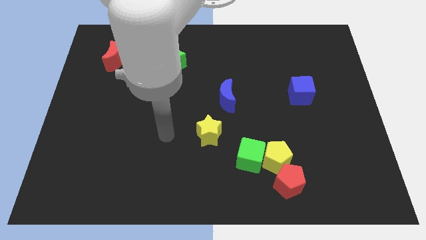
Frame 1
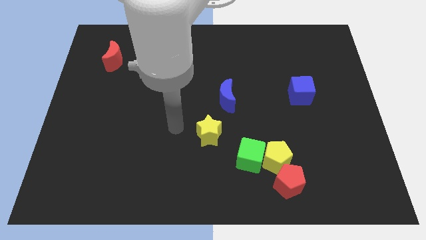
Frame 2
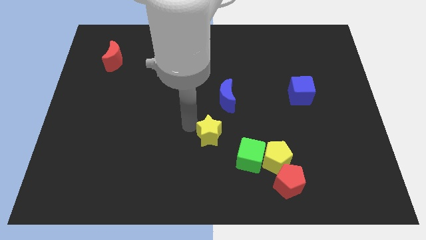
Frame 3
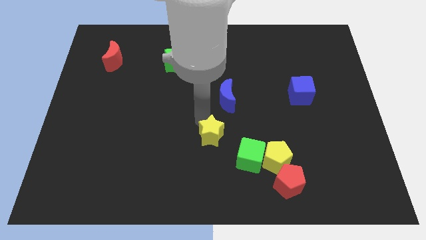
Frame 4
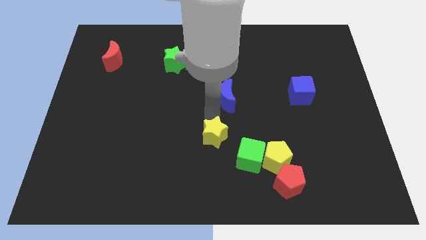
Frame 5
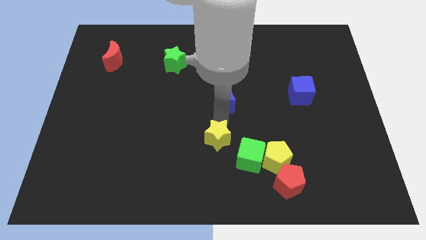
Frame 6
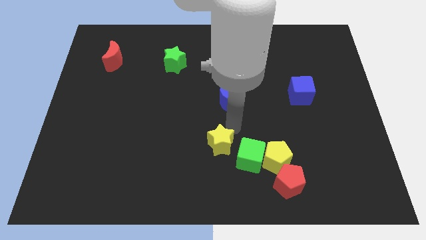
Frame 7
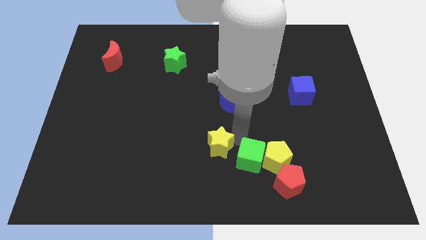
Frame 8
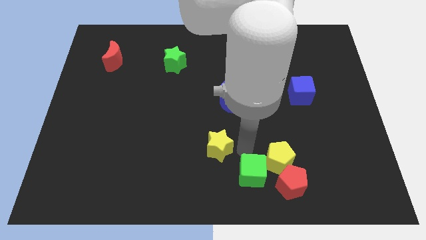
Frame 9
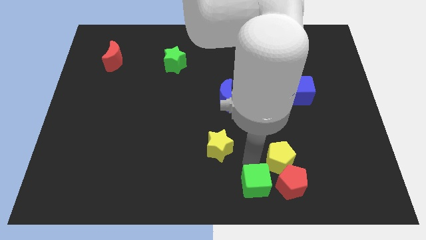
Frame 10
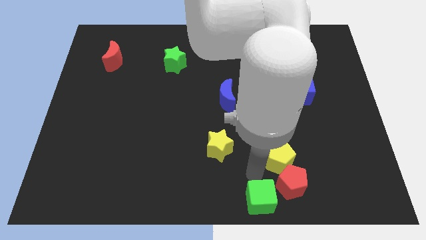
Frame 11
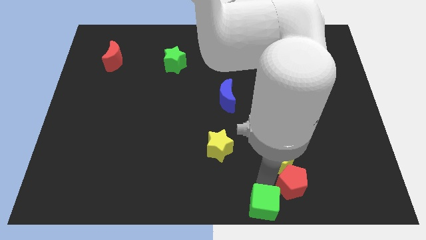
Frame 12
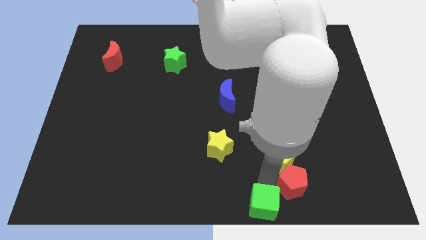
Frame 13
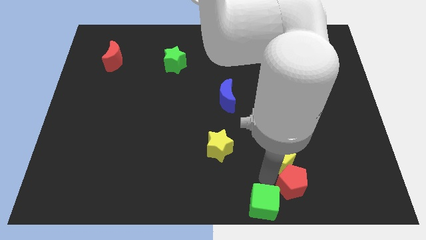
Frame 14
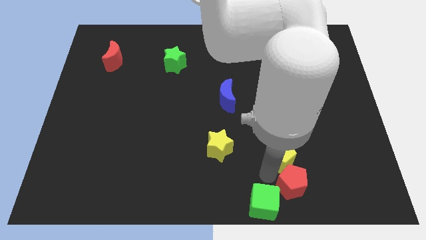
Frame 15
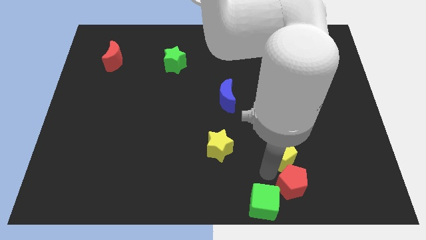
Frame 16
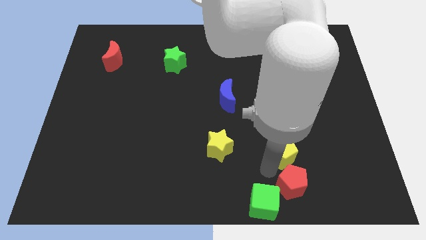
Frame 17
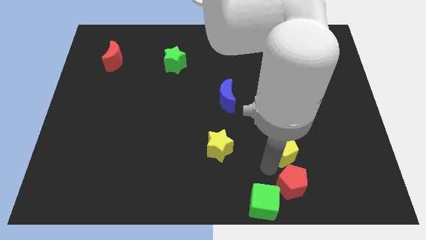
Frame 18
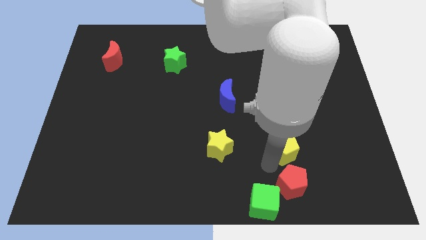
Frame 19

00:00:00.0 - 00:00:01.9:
separate the yellow pentagon from the green cube and red pentagon

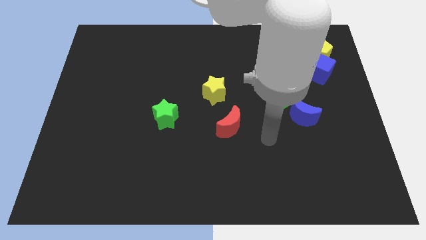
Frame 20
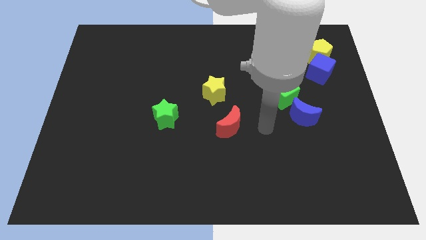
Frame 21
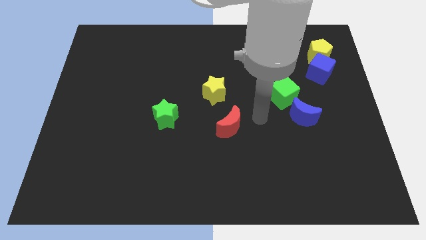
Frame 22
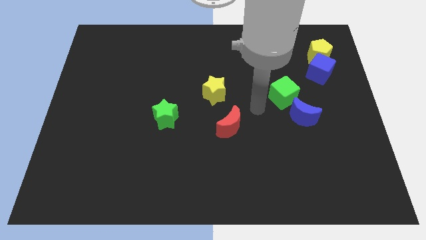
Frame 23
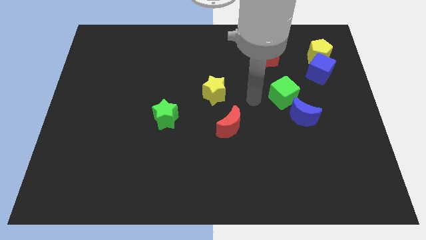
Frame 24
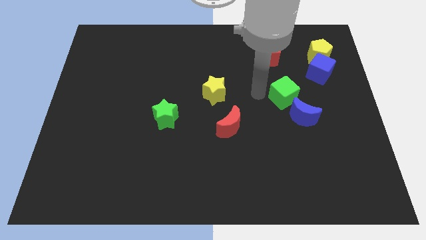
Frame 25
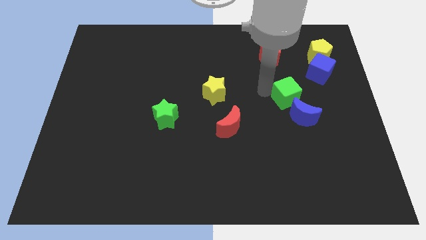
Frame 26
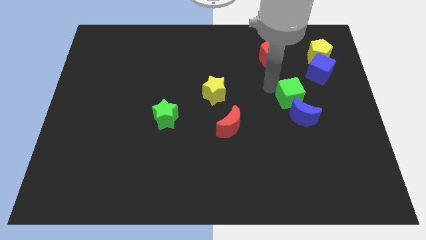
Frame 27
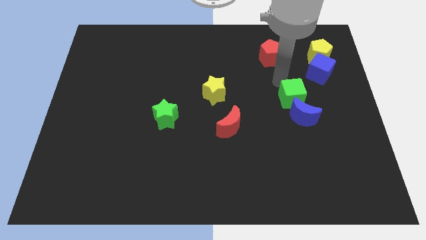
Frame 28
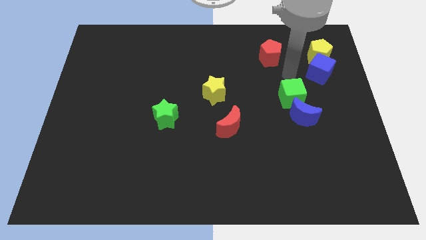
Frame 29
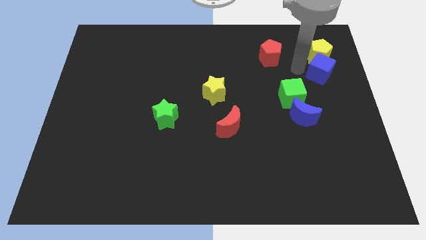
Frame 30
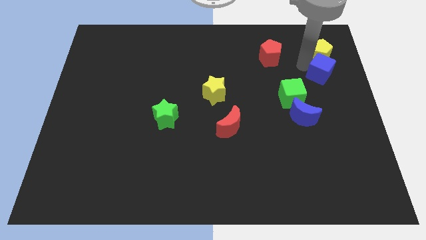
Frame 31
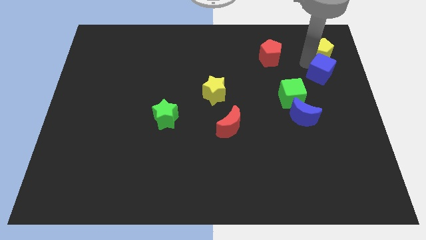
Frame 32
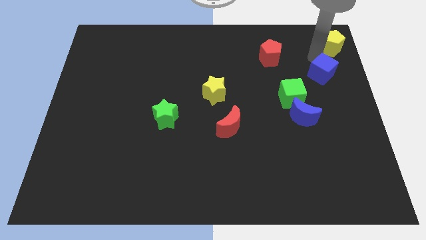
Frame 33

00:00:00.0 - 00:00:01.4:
move the blue cube away from the yellow pentagon

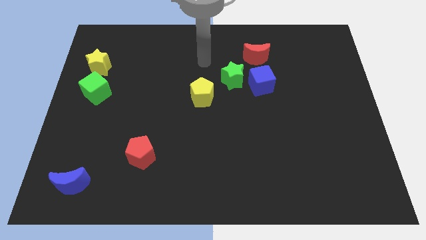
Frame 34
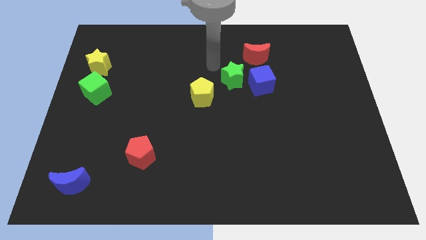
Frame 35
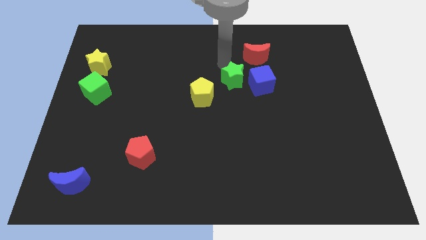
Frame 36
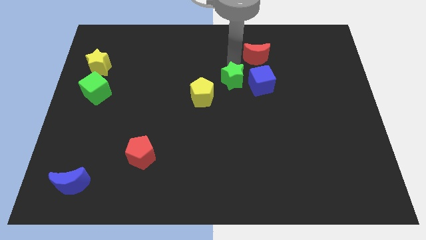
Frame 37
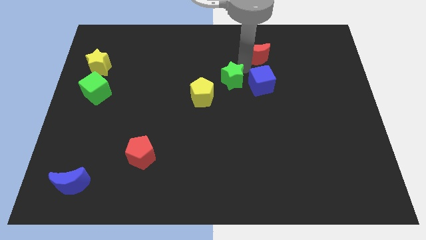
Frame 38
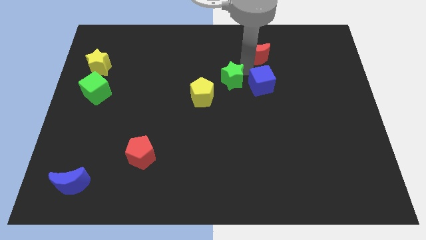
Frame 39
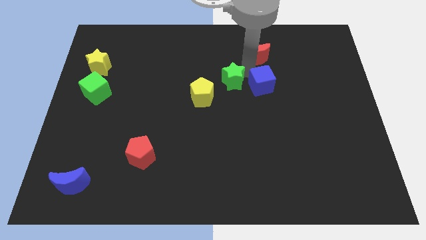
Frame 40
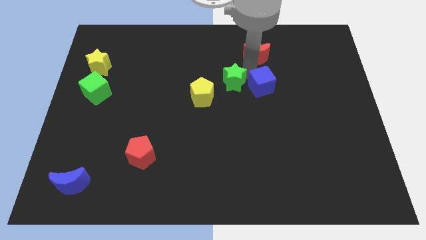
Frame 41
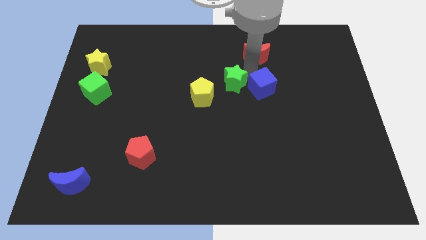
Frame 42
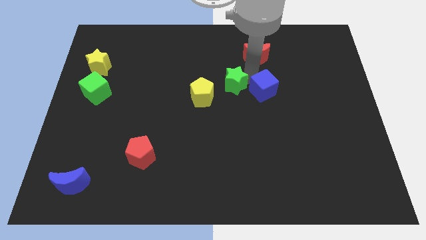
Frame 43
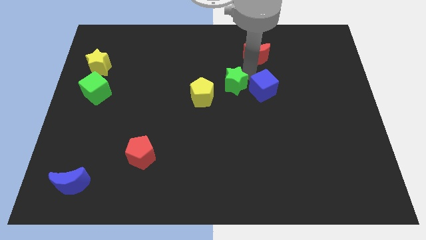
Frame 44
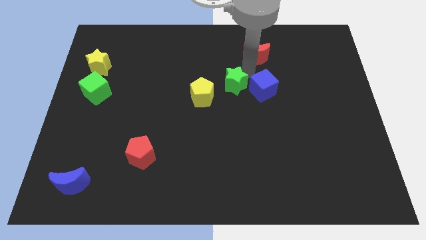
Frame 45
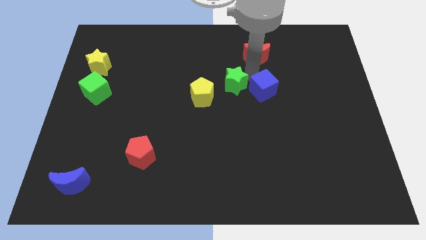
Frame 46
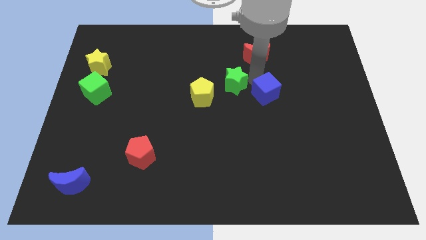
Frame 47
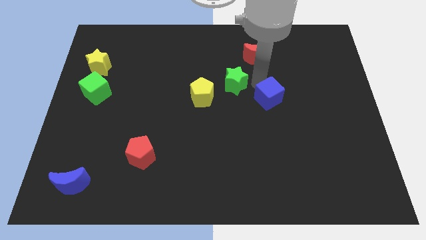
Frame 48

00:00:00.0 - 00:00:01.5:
pull the blue cube apart from the green star and red moon

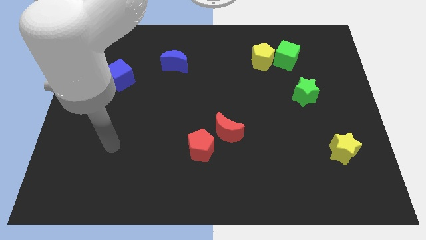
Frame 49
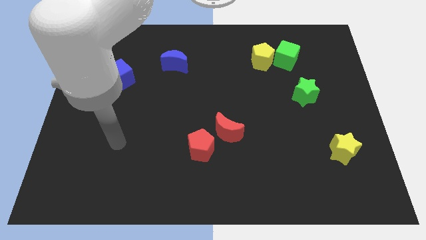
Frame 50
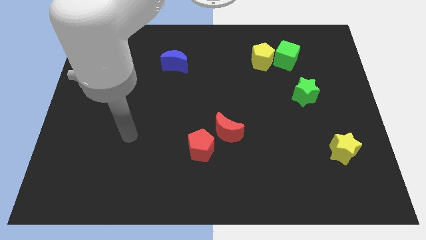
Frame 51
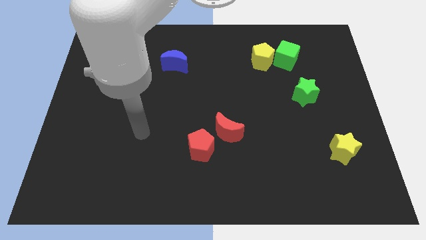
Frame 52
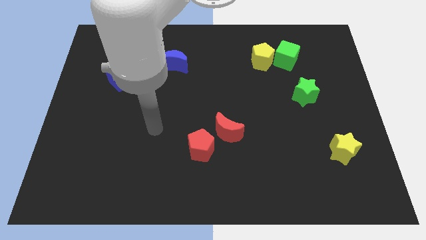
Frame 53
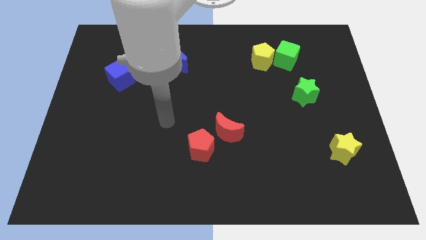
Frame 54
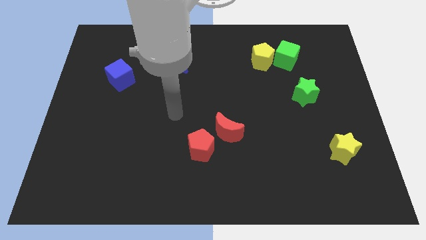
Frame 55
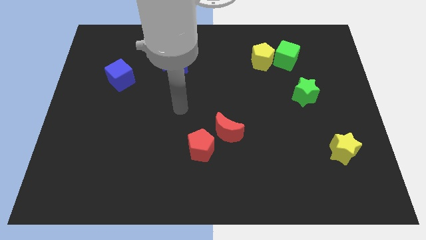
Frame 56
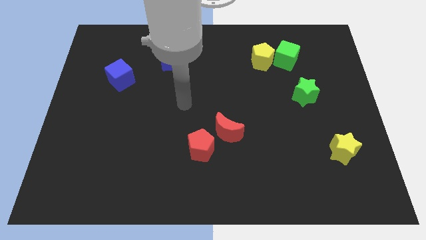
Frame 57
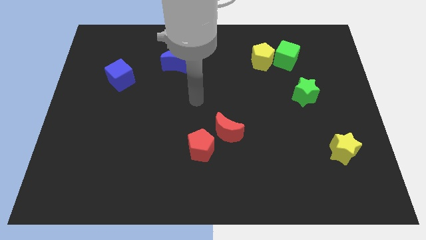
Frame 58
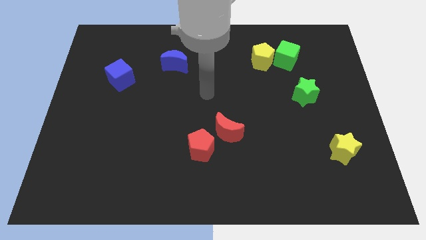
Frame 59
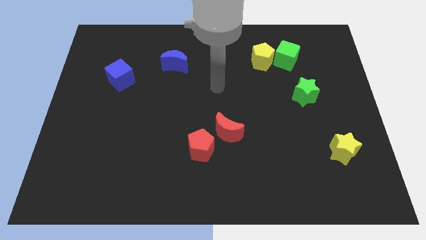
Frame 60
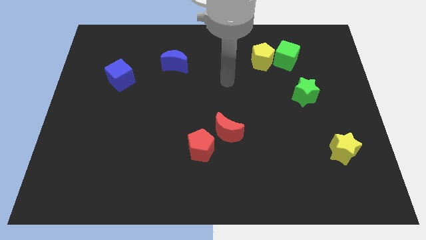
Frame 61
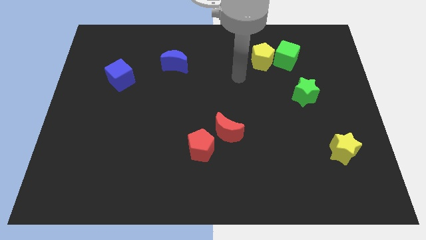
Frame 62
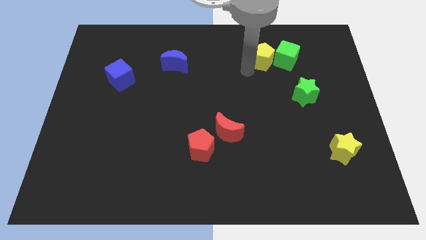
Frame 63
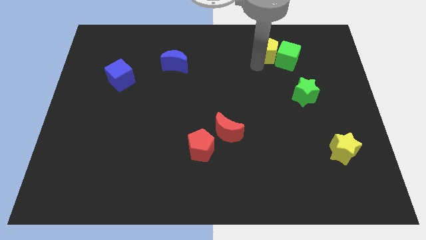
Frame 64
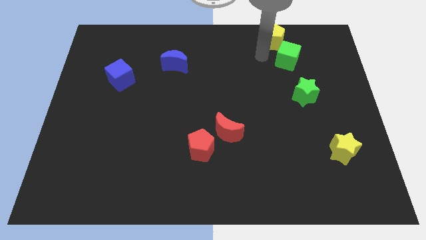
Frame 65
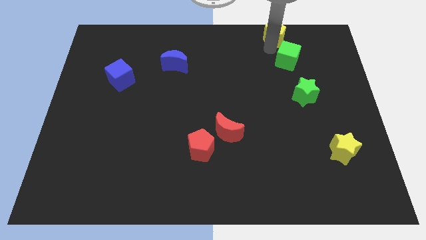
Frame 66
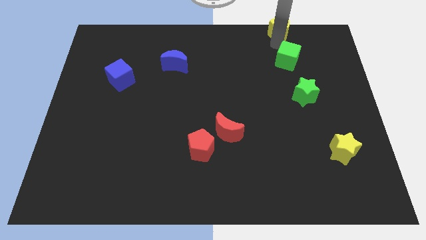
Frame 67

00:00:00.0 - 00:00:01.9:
separate the green cube from the yellow pentagon

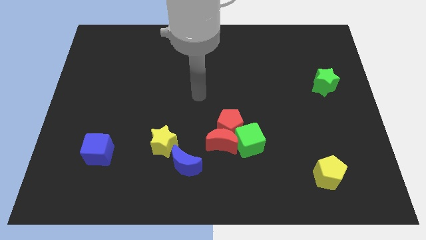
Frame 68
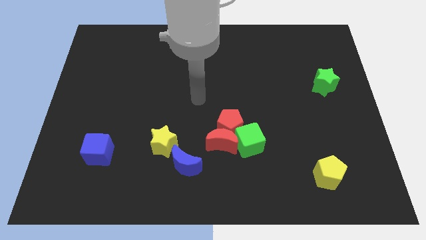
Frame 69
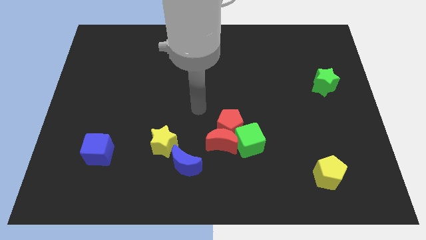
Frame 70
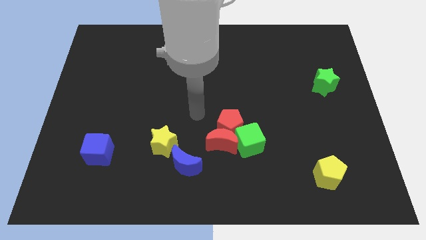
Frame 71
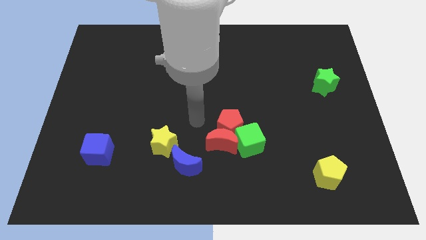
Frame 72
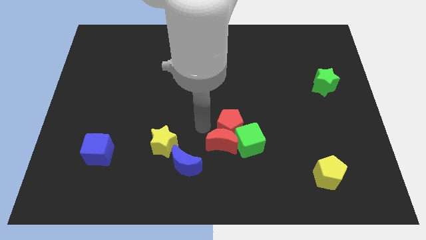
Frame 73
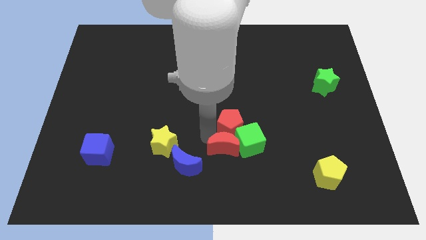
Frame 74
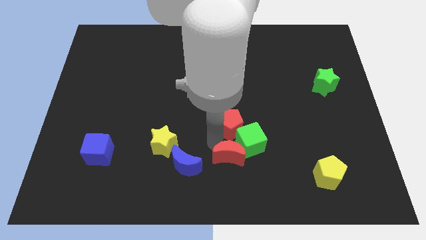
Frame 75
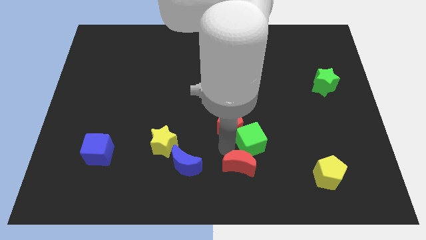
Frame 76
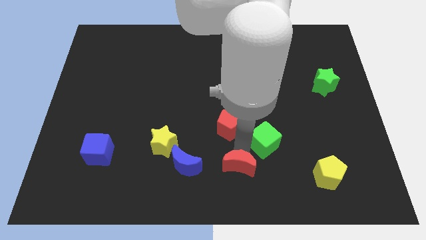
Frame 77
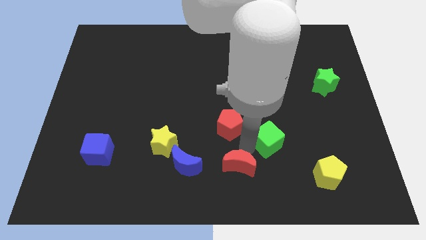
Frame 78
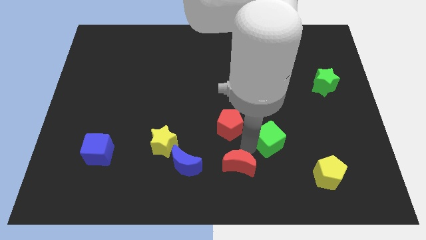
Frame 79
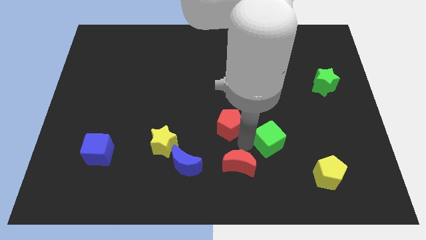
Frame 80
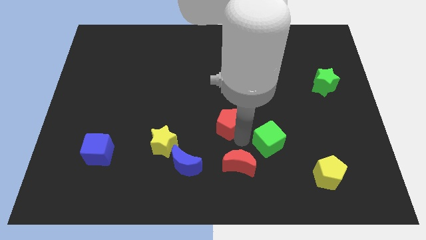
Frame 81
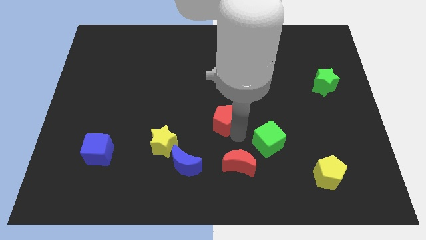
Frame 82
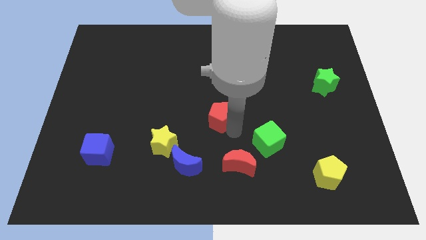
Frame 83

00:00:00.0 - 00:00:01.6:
move the red pentagon away from the red moon and green cube

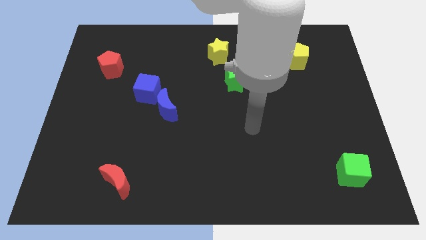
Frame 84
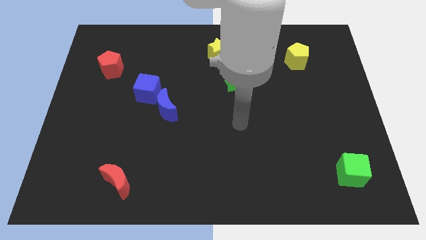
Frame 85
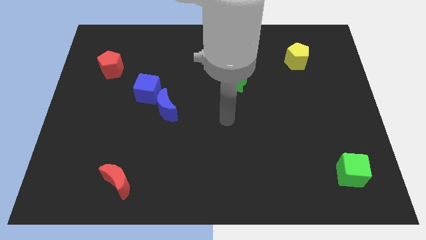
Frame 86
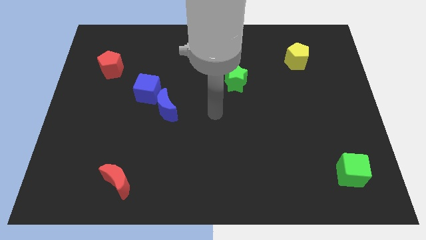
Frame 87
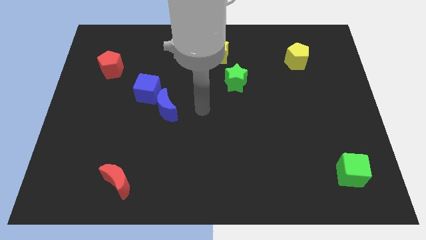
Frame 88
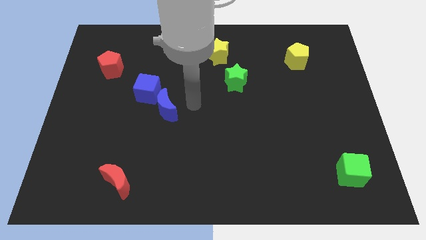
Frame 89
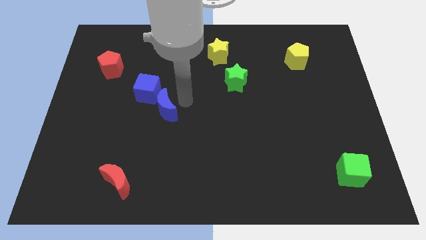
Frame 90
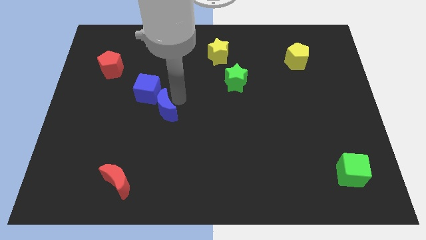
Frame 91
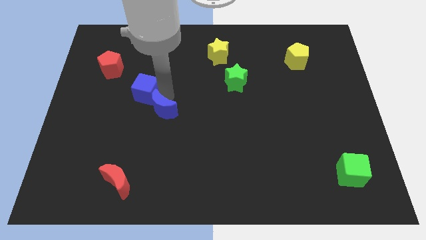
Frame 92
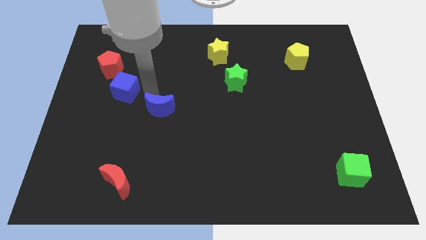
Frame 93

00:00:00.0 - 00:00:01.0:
move the blue moon away from the blue cube
